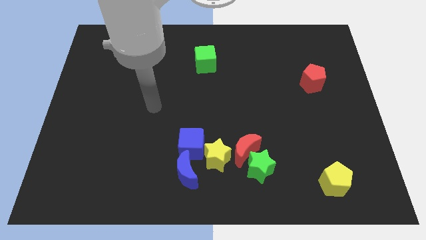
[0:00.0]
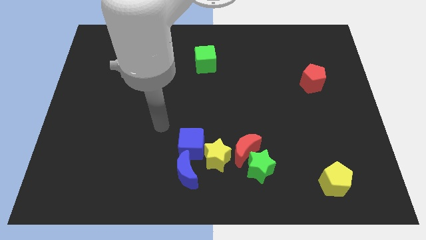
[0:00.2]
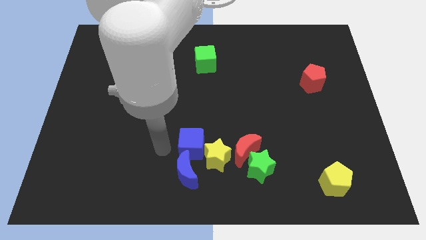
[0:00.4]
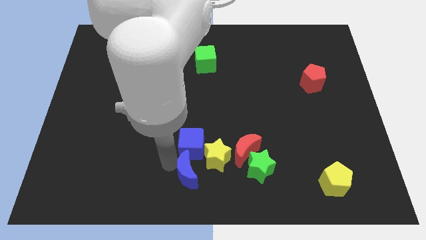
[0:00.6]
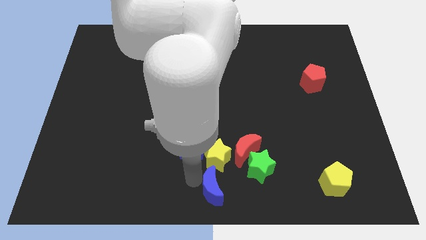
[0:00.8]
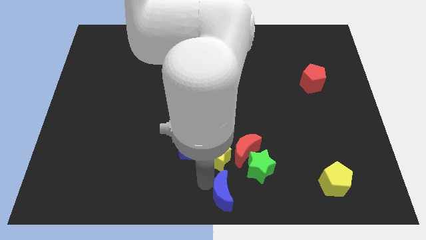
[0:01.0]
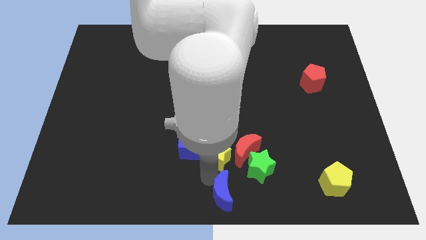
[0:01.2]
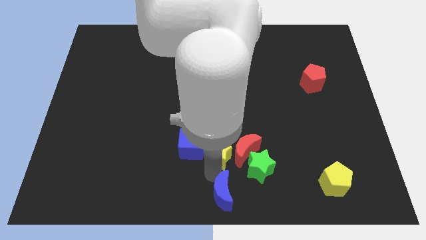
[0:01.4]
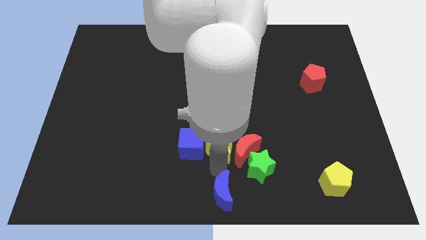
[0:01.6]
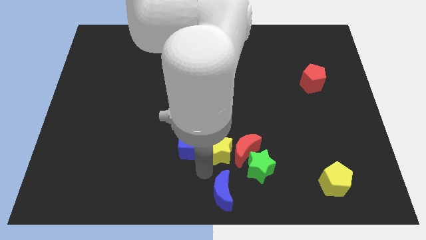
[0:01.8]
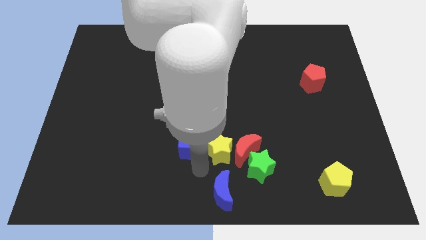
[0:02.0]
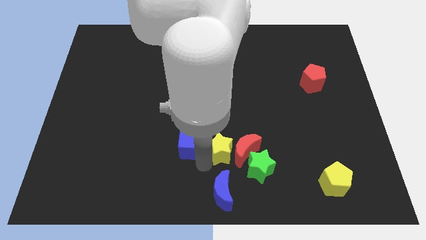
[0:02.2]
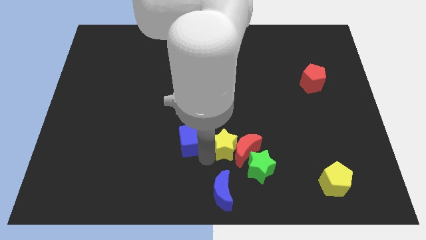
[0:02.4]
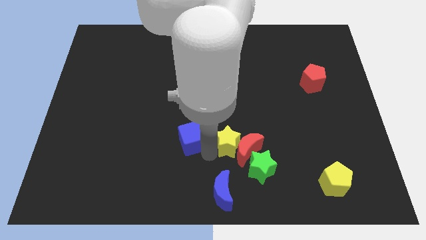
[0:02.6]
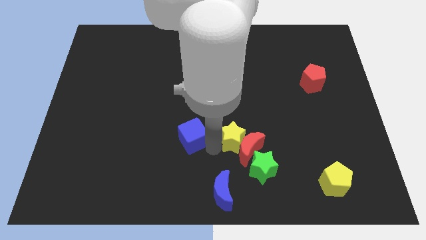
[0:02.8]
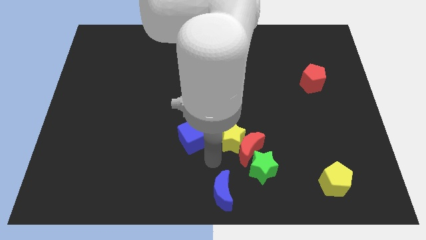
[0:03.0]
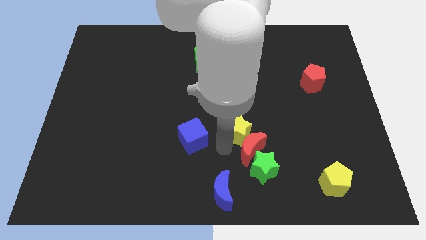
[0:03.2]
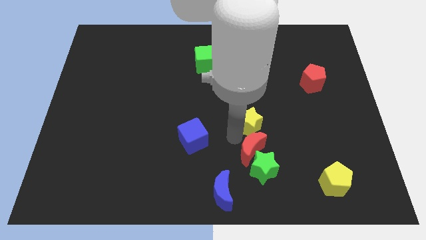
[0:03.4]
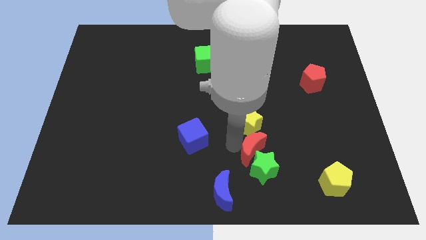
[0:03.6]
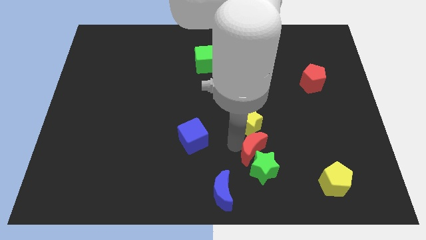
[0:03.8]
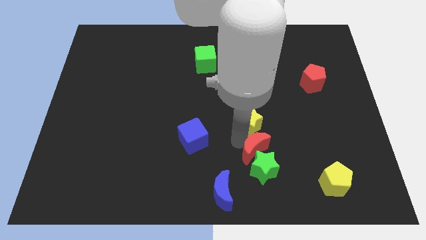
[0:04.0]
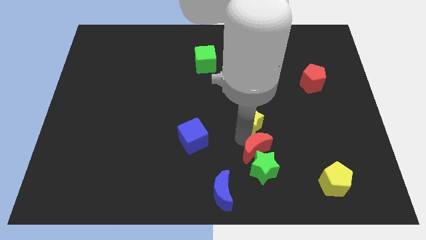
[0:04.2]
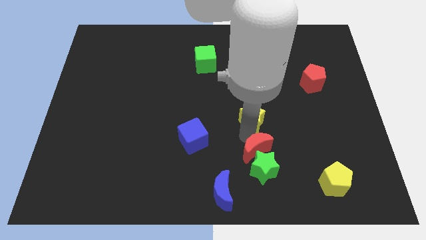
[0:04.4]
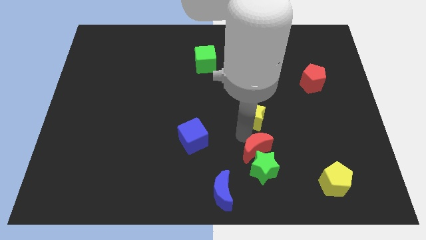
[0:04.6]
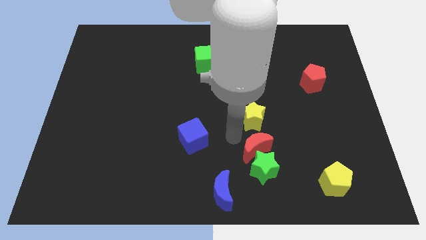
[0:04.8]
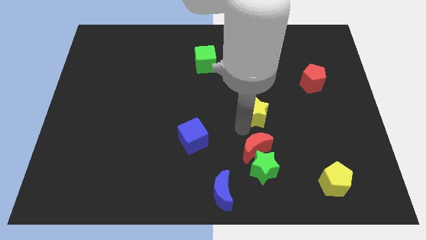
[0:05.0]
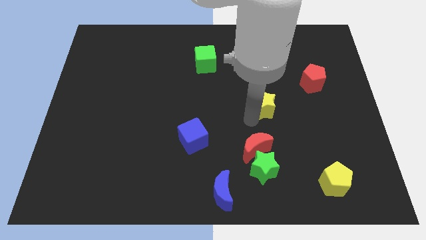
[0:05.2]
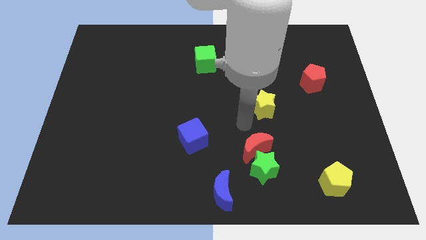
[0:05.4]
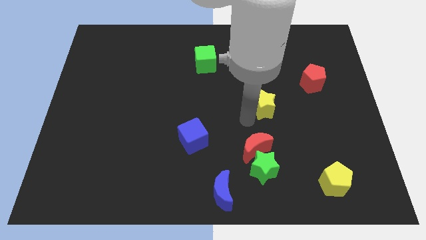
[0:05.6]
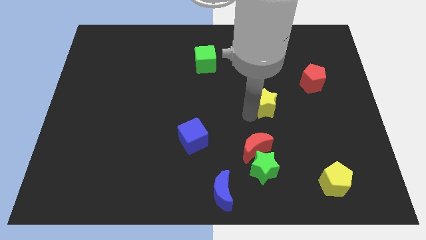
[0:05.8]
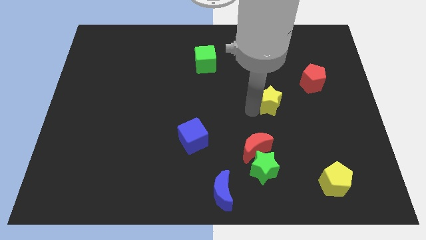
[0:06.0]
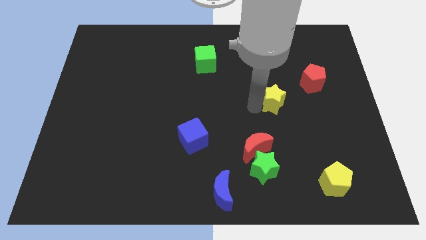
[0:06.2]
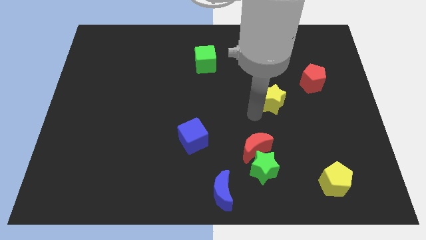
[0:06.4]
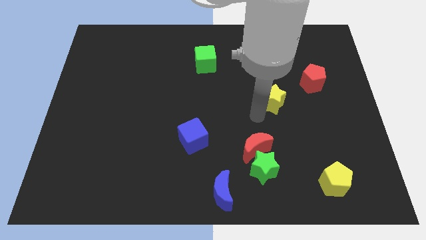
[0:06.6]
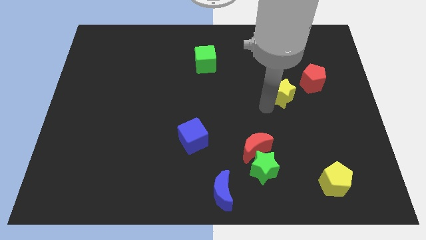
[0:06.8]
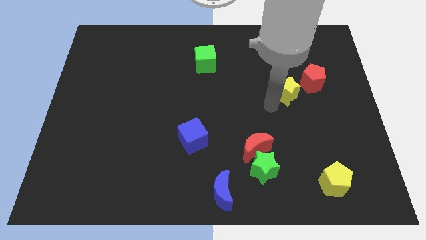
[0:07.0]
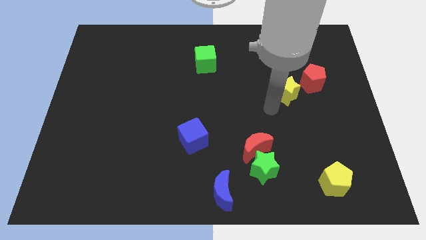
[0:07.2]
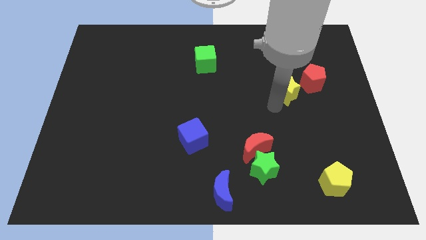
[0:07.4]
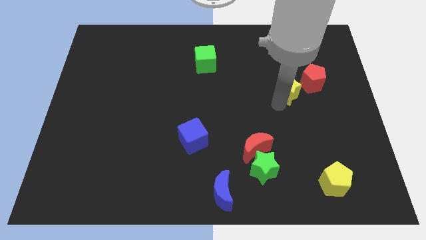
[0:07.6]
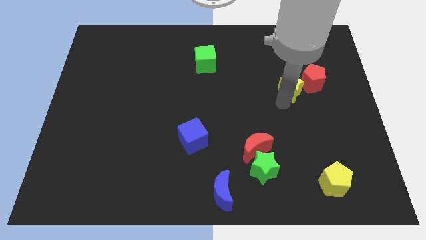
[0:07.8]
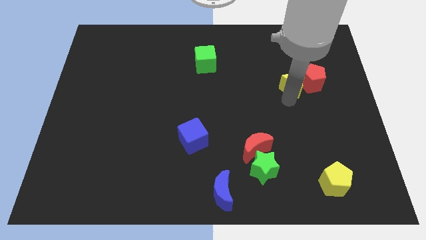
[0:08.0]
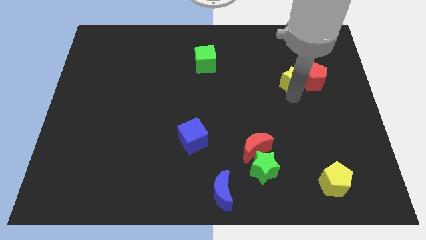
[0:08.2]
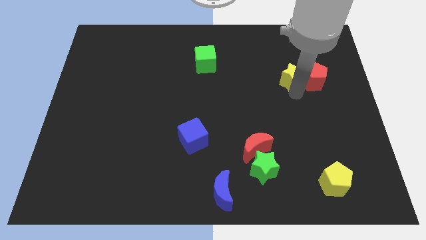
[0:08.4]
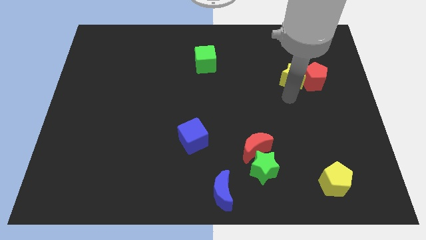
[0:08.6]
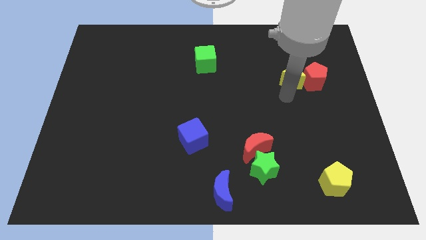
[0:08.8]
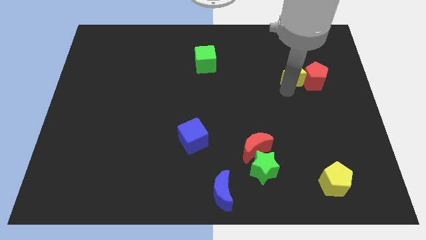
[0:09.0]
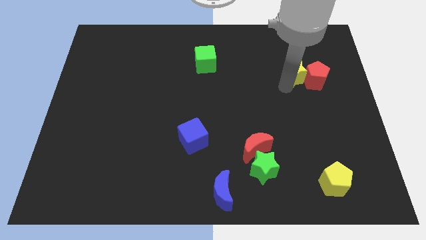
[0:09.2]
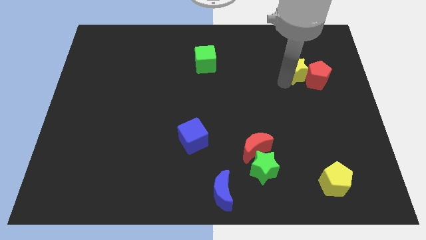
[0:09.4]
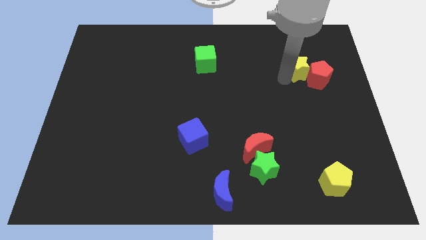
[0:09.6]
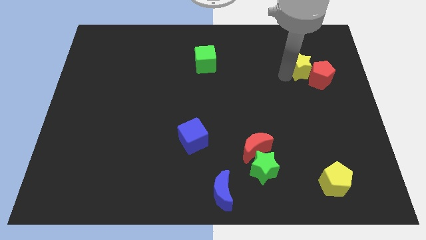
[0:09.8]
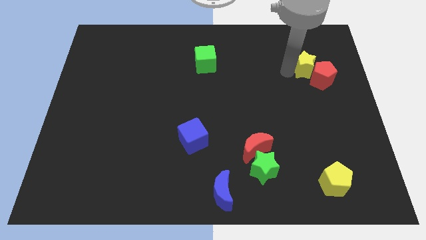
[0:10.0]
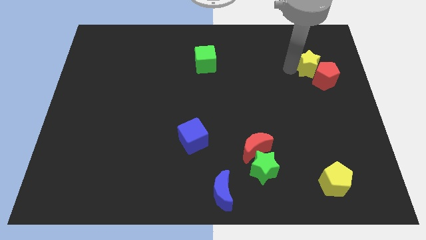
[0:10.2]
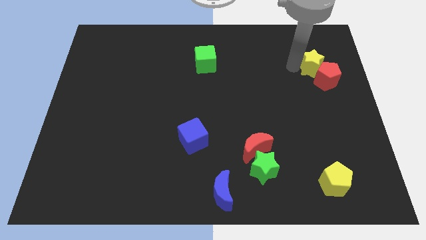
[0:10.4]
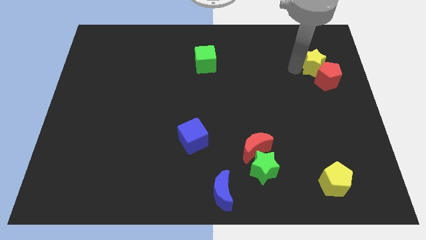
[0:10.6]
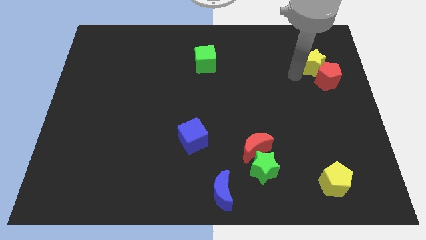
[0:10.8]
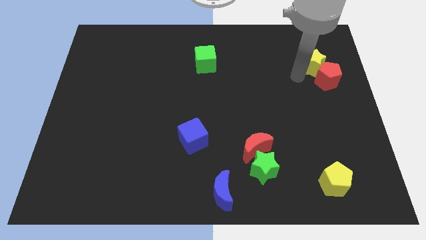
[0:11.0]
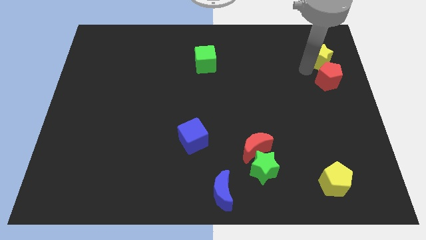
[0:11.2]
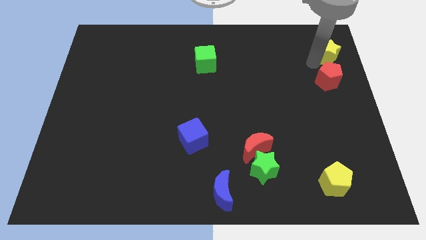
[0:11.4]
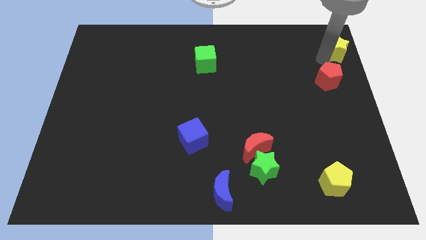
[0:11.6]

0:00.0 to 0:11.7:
move the yellow star to the upper right corner
